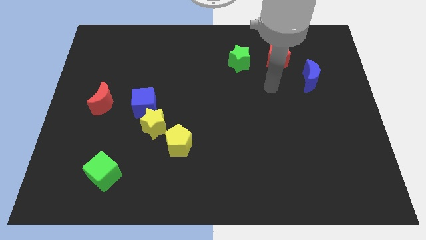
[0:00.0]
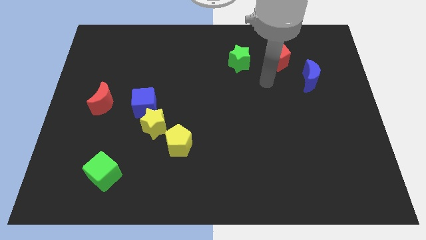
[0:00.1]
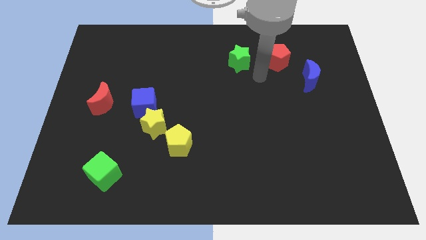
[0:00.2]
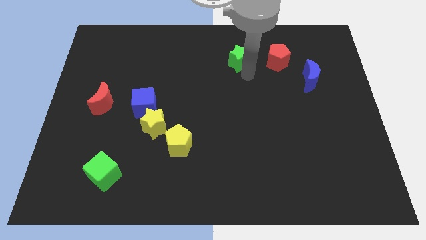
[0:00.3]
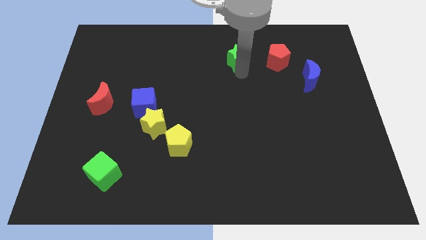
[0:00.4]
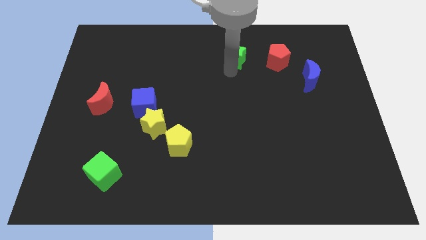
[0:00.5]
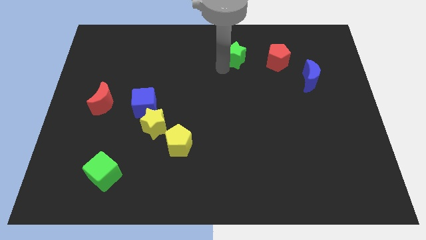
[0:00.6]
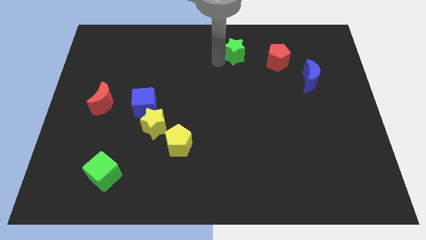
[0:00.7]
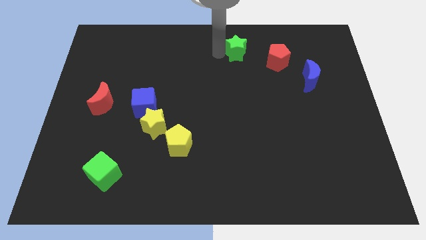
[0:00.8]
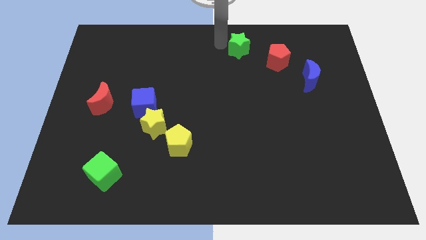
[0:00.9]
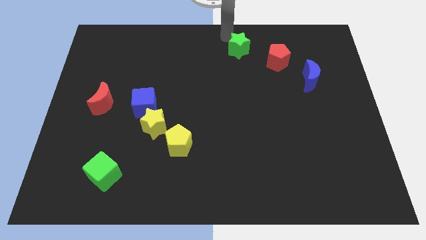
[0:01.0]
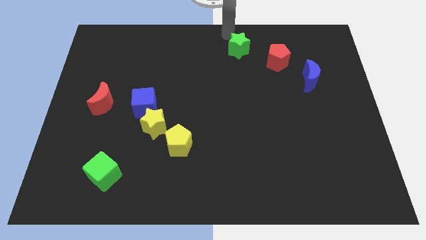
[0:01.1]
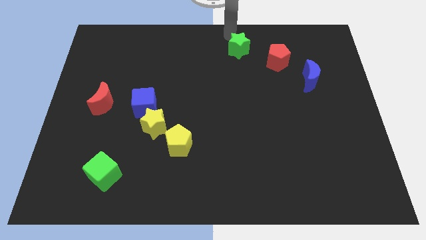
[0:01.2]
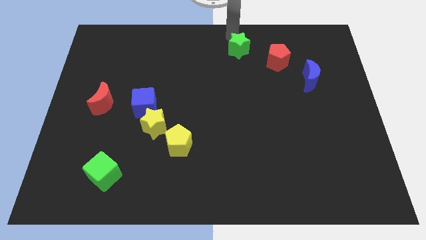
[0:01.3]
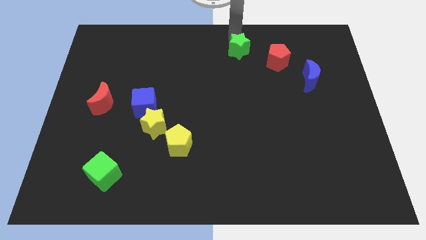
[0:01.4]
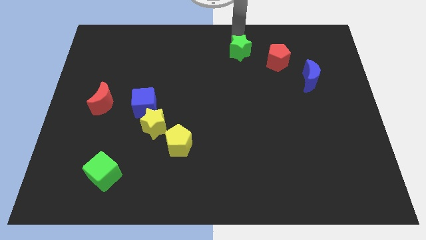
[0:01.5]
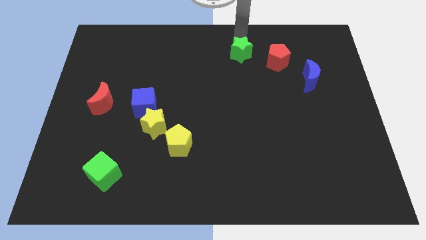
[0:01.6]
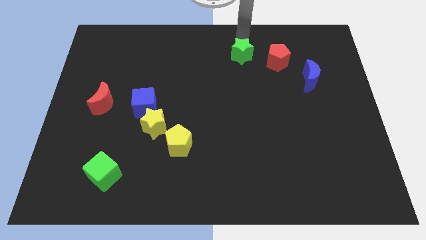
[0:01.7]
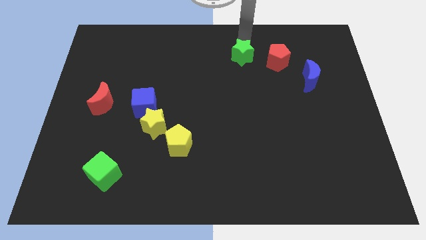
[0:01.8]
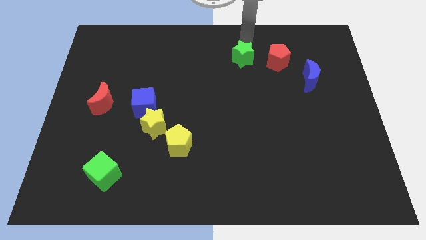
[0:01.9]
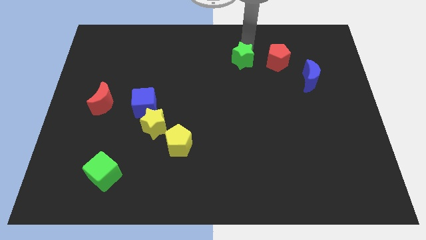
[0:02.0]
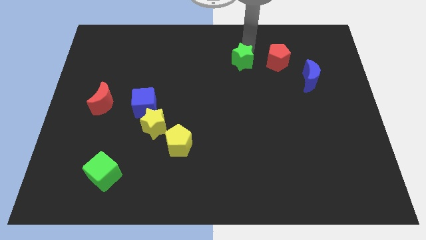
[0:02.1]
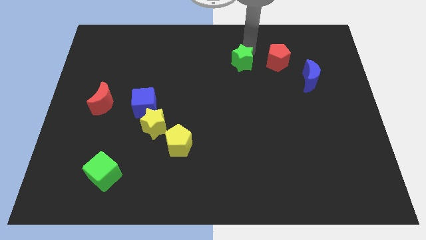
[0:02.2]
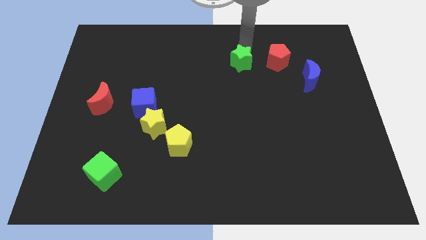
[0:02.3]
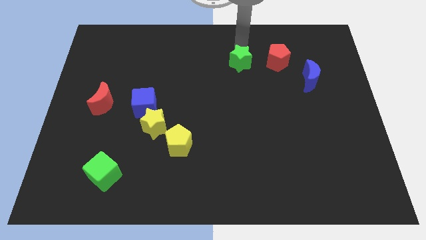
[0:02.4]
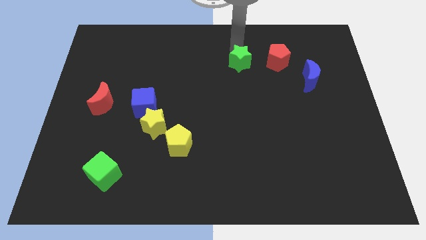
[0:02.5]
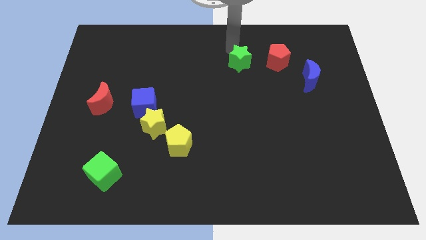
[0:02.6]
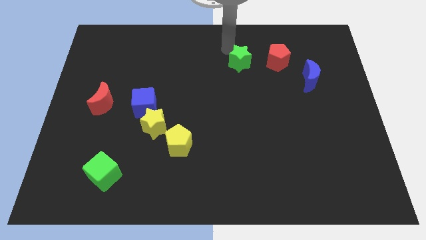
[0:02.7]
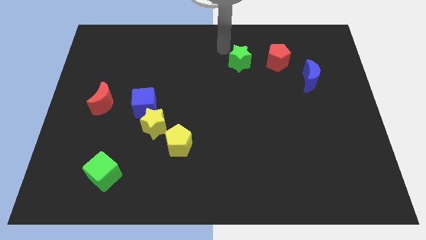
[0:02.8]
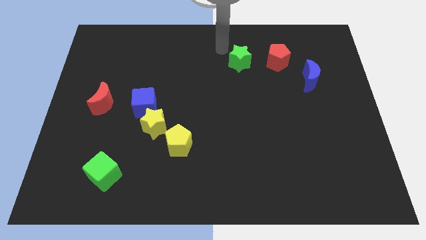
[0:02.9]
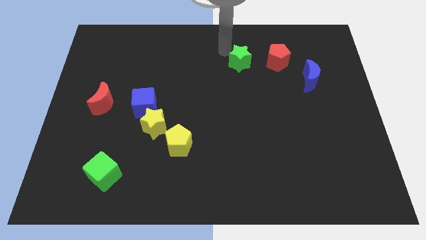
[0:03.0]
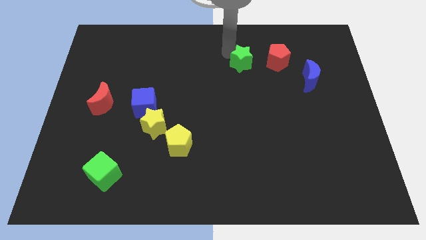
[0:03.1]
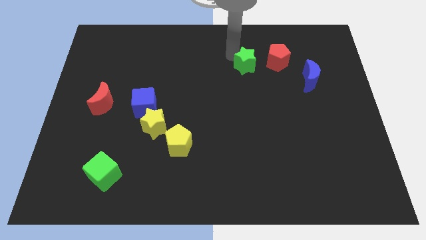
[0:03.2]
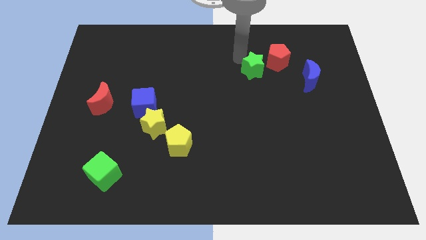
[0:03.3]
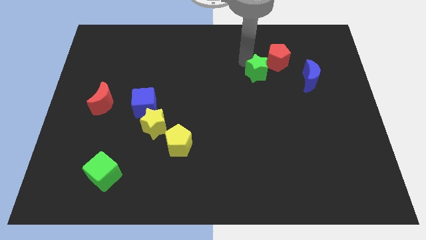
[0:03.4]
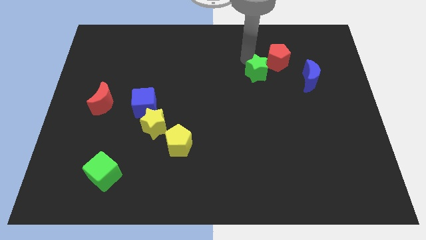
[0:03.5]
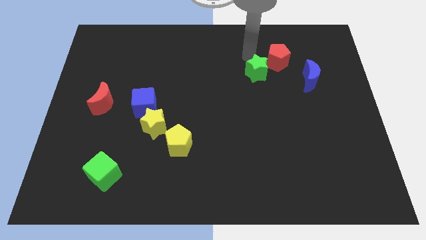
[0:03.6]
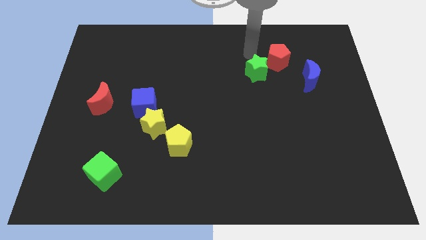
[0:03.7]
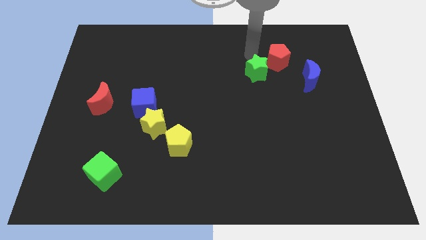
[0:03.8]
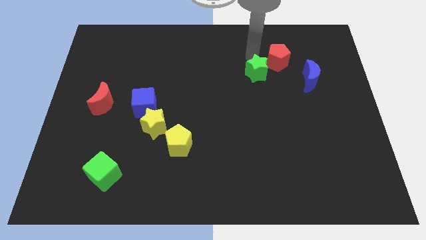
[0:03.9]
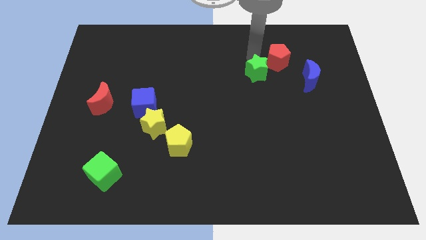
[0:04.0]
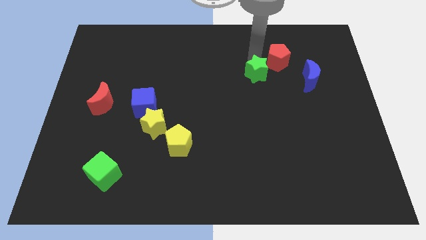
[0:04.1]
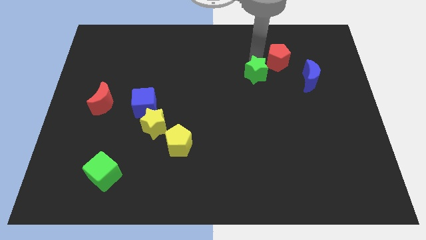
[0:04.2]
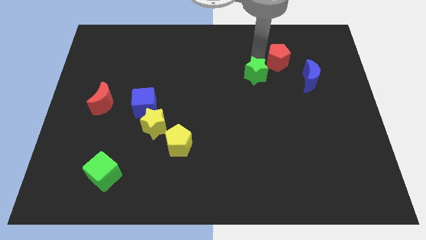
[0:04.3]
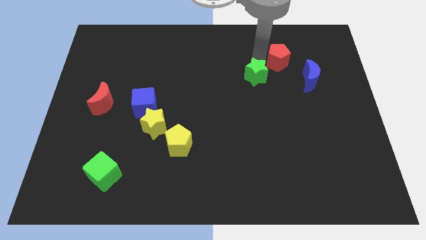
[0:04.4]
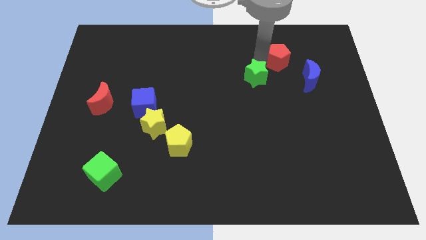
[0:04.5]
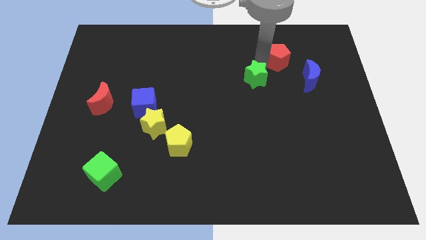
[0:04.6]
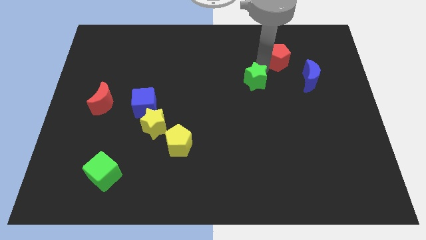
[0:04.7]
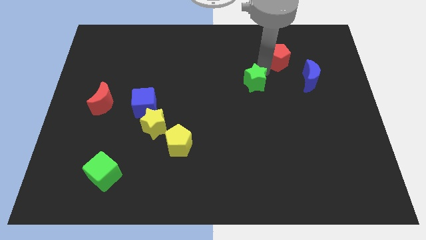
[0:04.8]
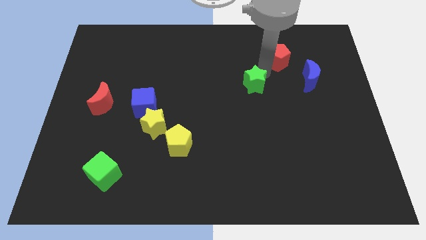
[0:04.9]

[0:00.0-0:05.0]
move the green star a little down

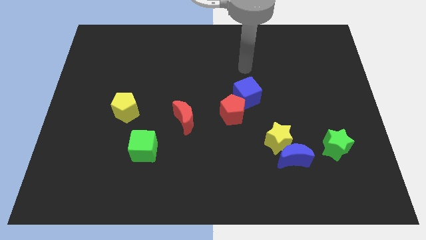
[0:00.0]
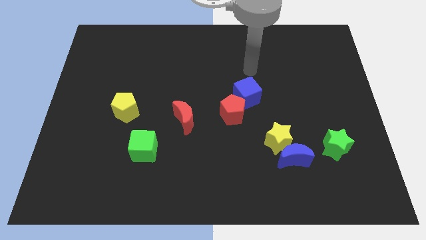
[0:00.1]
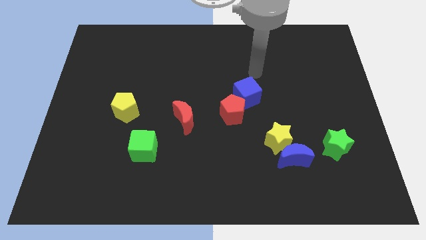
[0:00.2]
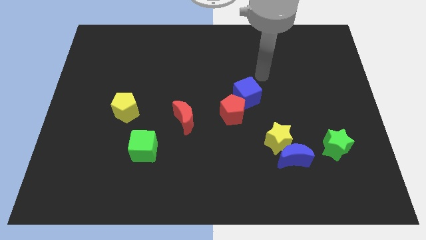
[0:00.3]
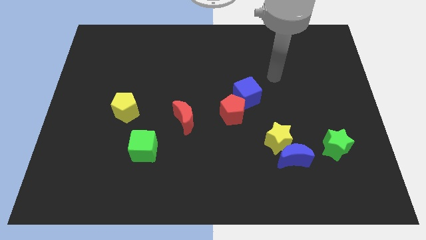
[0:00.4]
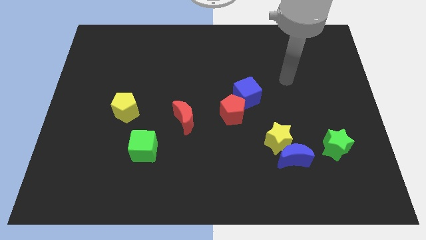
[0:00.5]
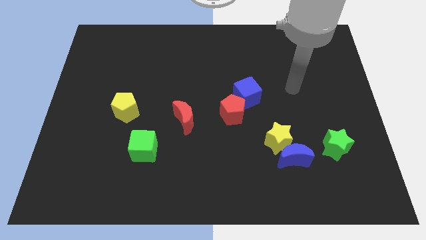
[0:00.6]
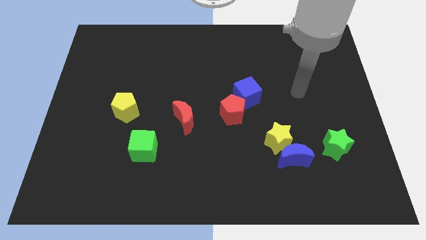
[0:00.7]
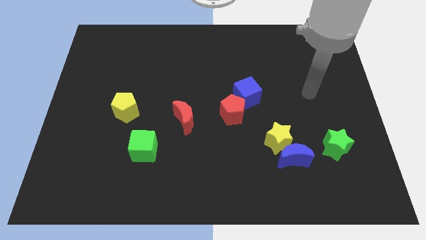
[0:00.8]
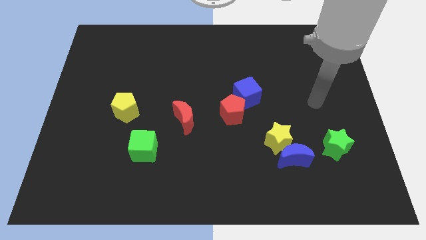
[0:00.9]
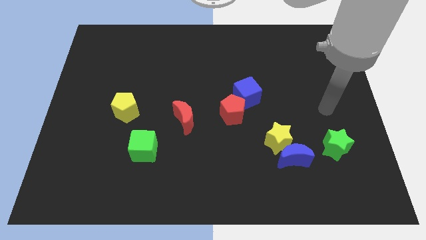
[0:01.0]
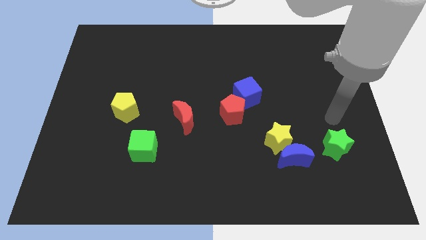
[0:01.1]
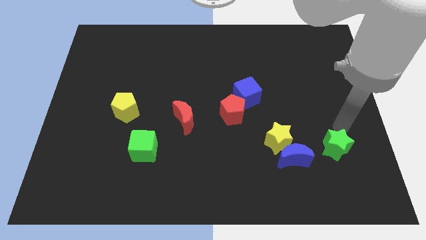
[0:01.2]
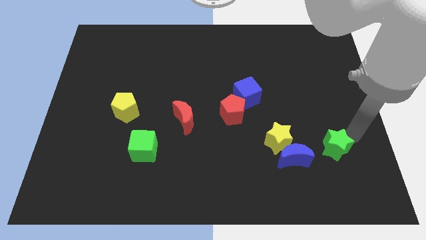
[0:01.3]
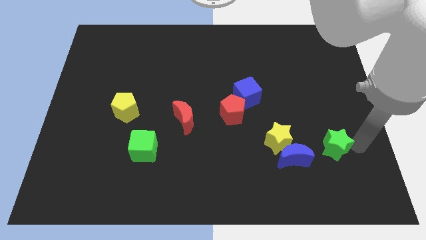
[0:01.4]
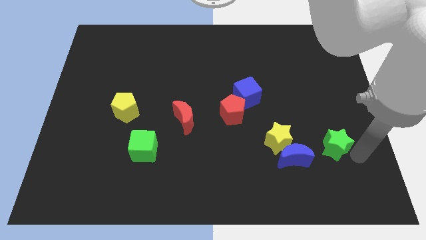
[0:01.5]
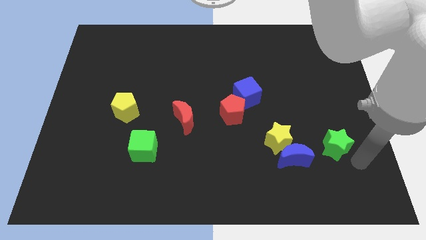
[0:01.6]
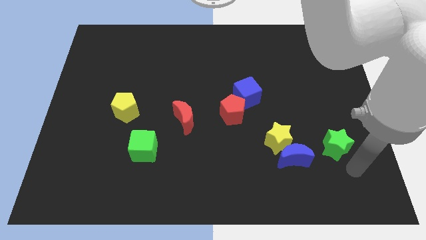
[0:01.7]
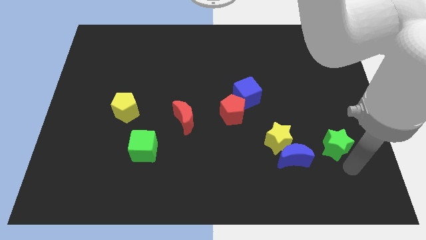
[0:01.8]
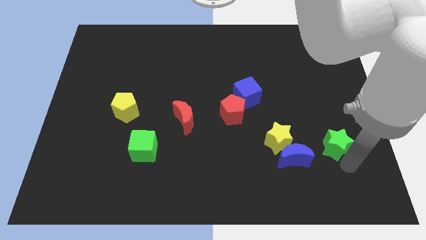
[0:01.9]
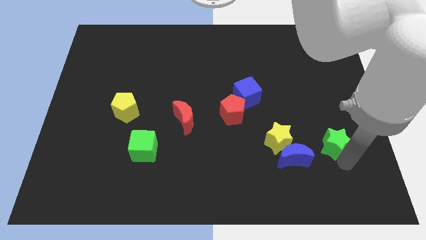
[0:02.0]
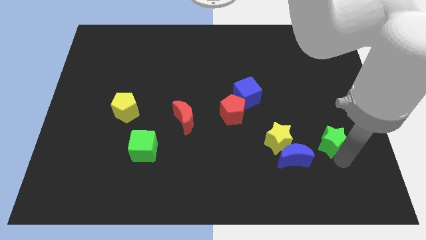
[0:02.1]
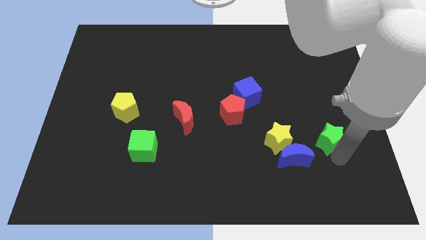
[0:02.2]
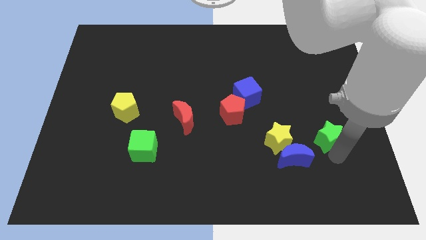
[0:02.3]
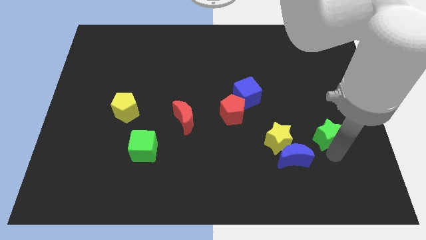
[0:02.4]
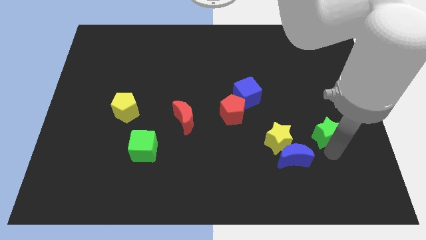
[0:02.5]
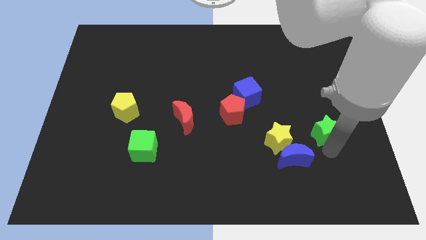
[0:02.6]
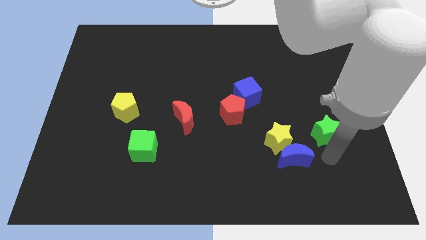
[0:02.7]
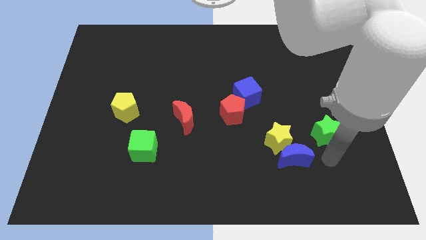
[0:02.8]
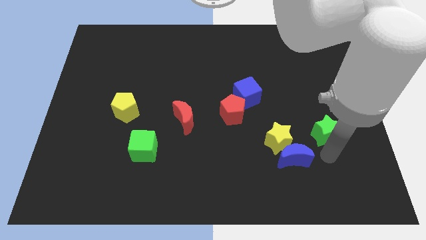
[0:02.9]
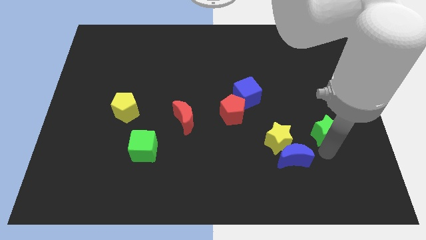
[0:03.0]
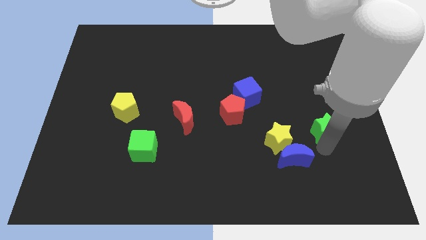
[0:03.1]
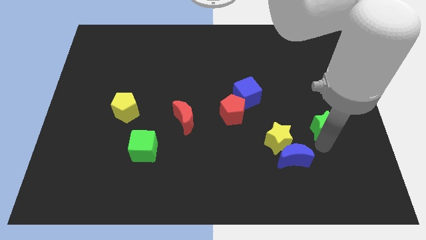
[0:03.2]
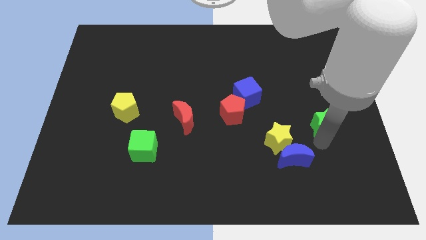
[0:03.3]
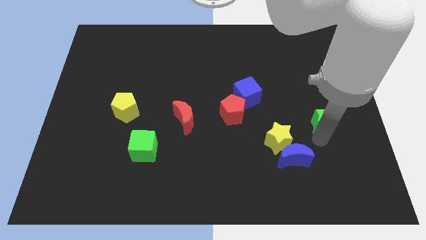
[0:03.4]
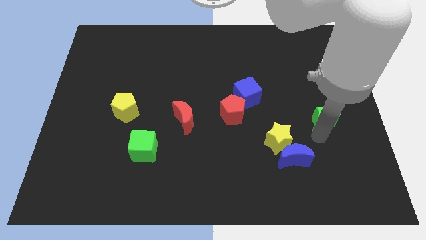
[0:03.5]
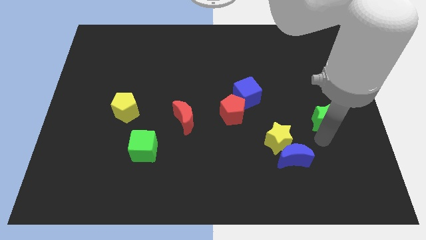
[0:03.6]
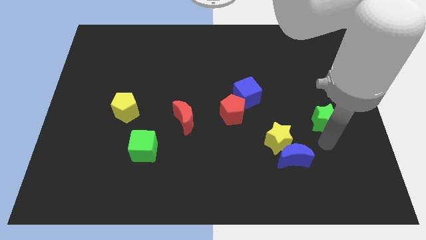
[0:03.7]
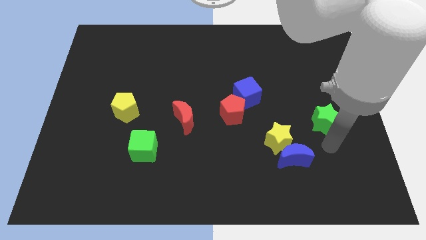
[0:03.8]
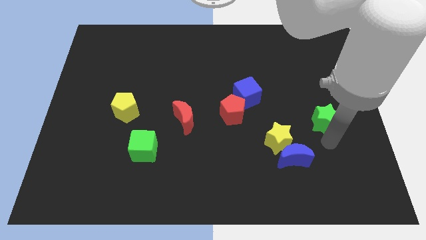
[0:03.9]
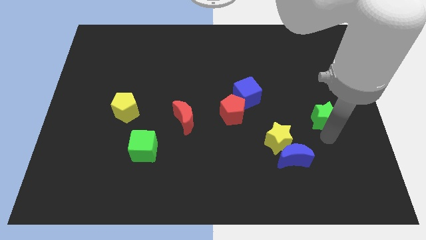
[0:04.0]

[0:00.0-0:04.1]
move the green star somewhat up
